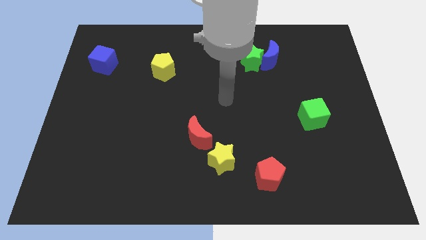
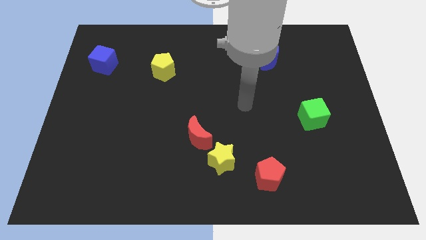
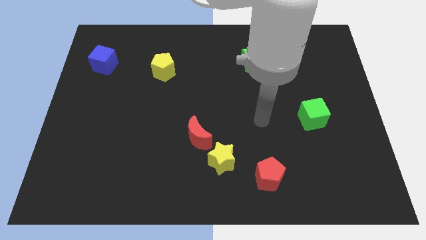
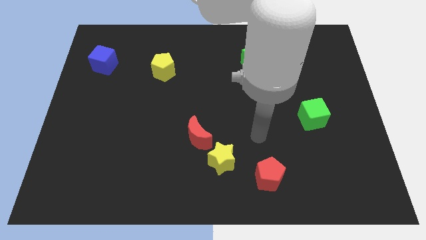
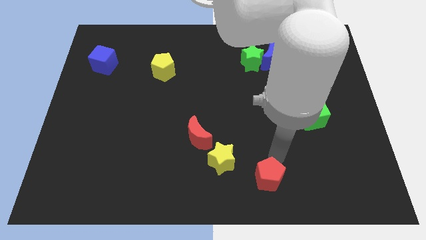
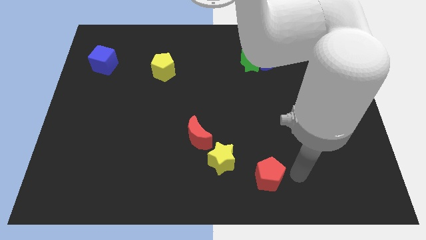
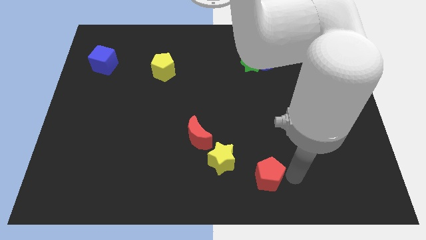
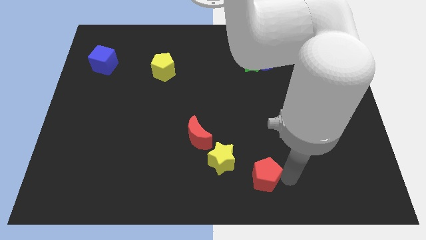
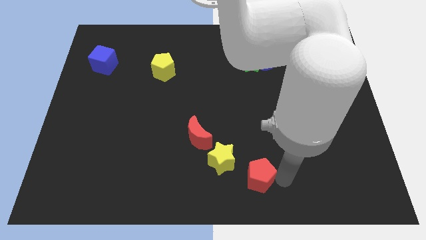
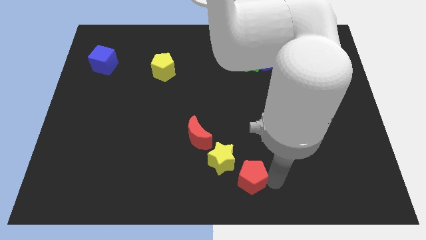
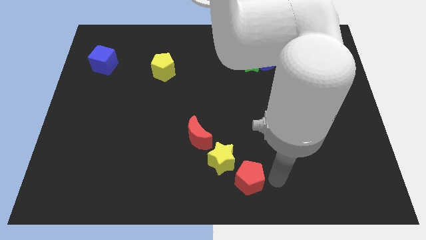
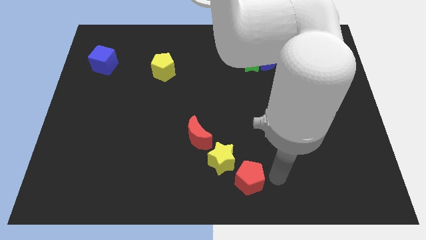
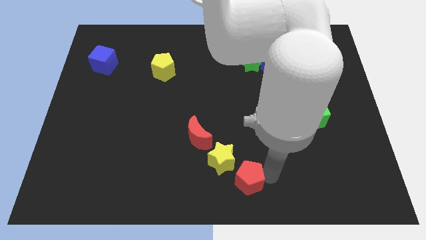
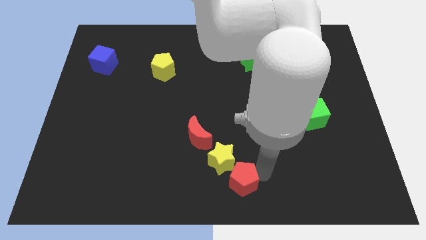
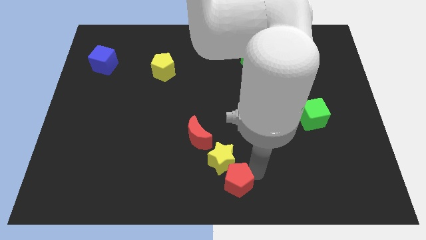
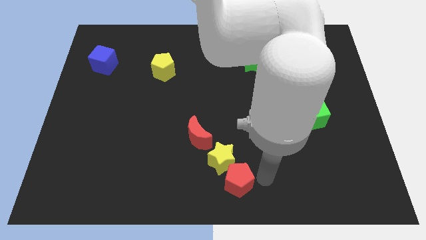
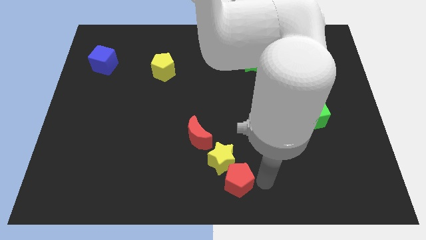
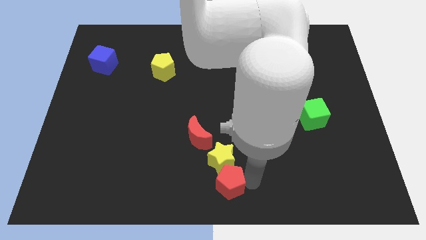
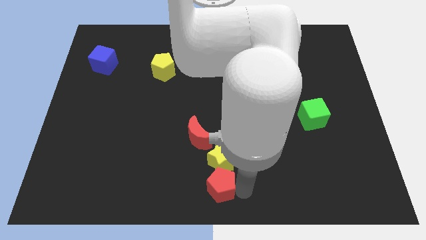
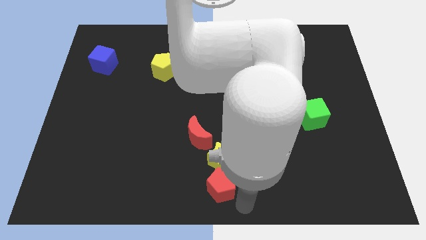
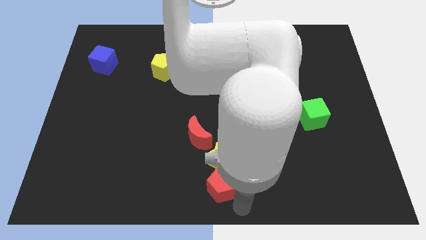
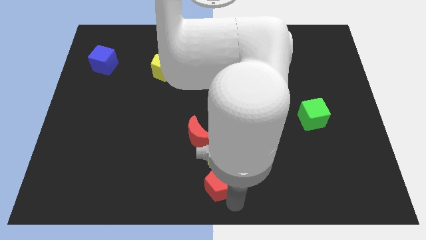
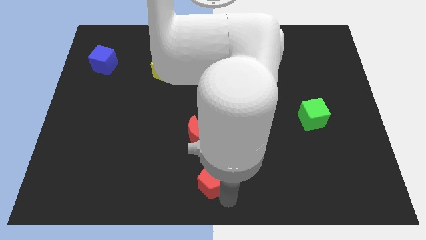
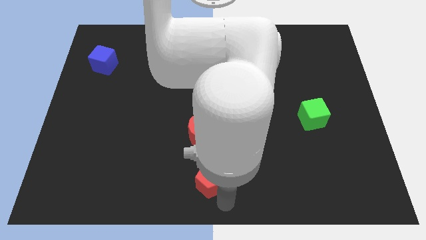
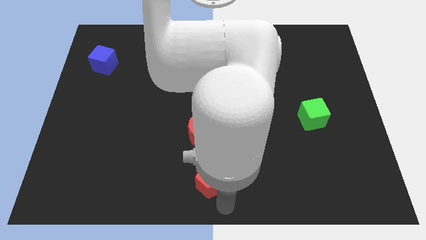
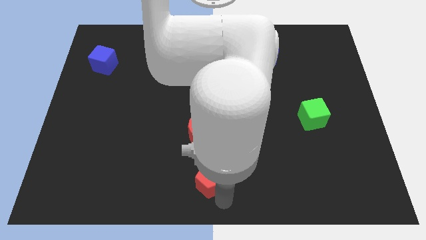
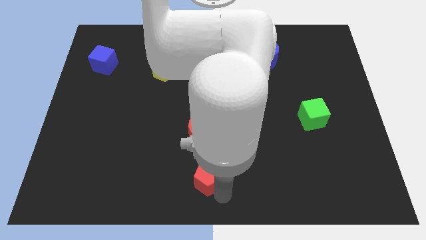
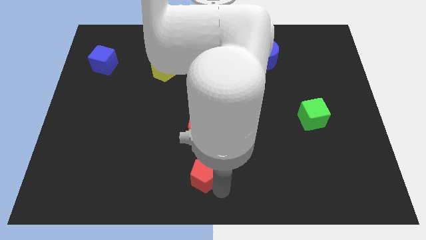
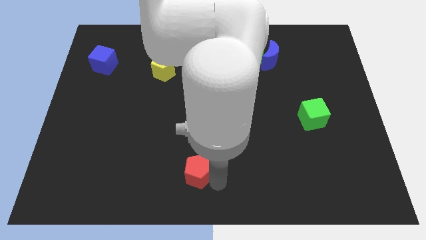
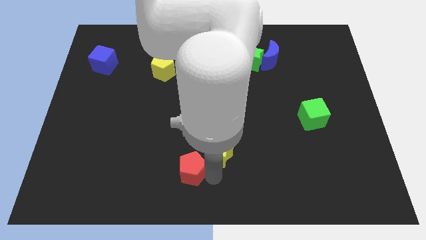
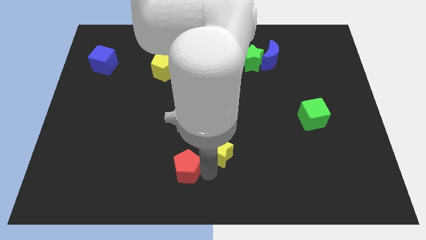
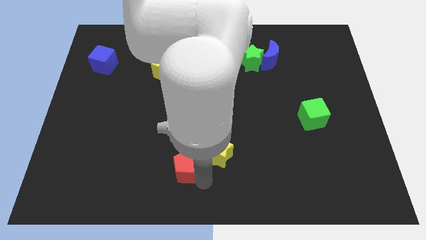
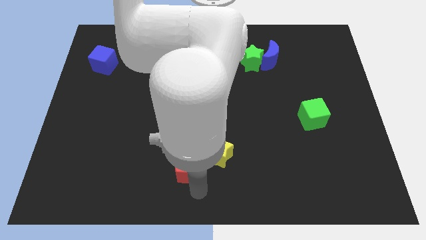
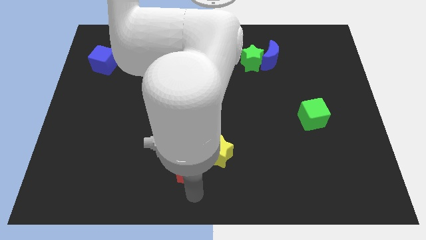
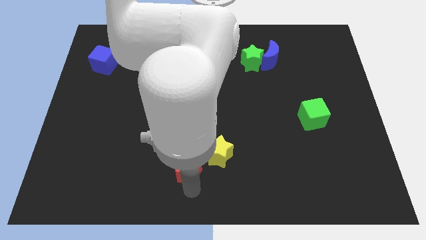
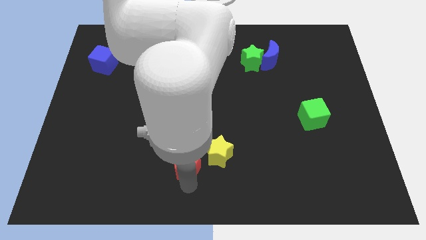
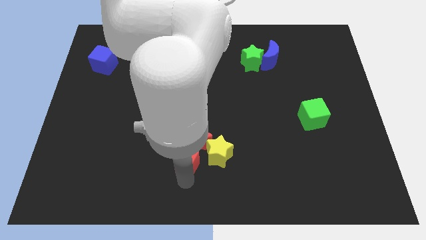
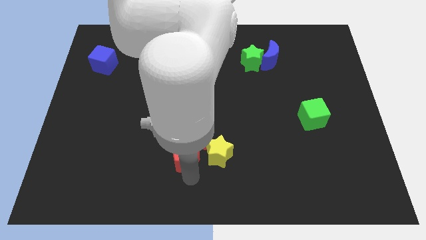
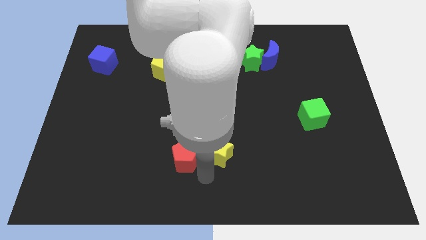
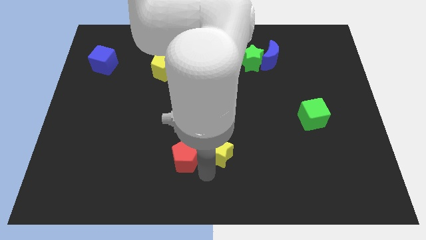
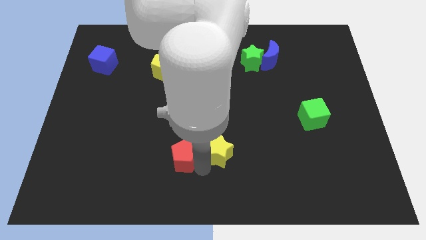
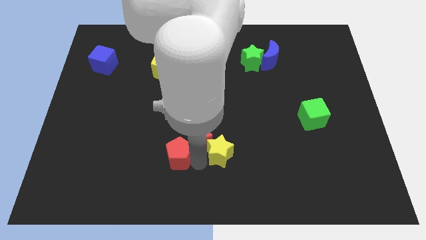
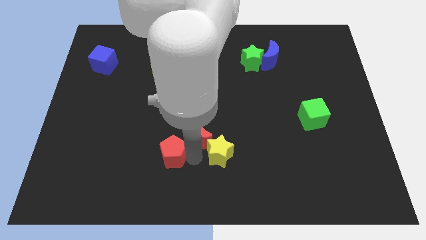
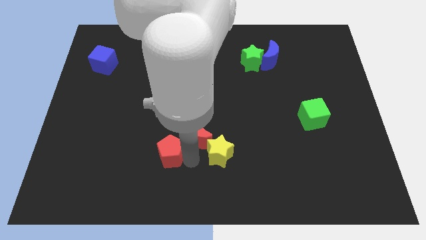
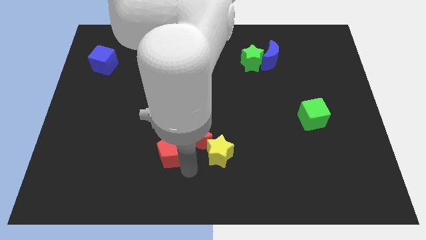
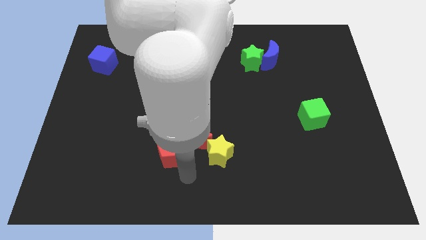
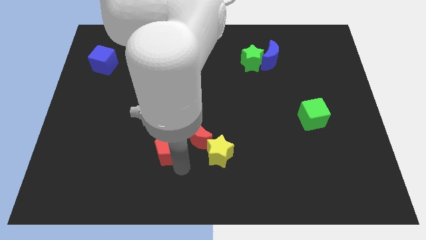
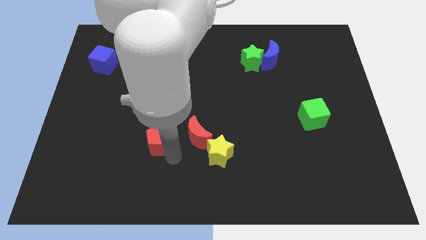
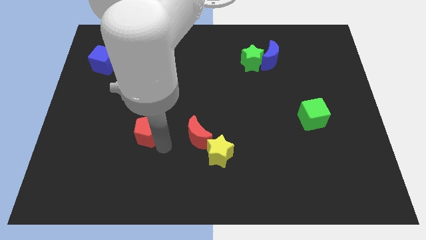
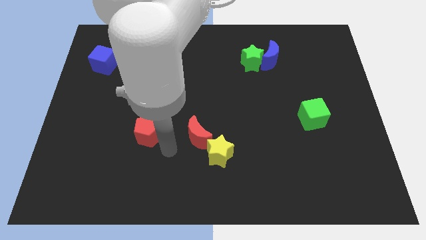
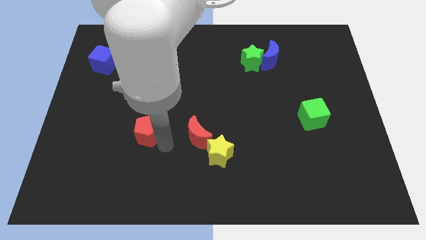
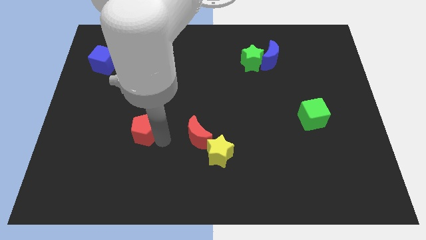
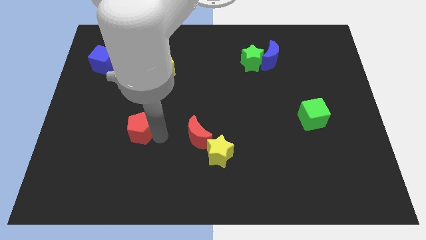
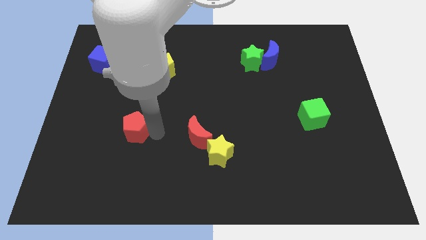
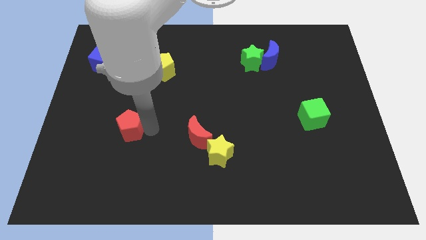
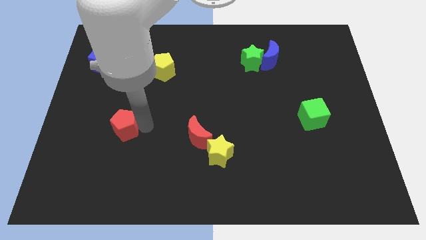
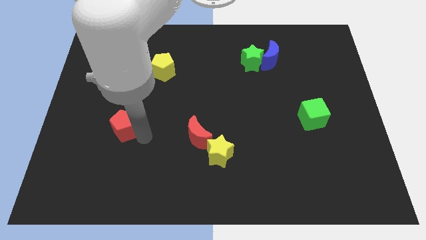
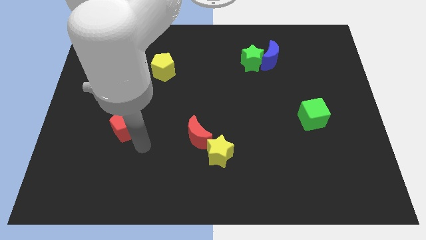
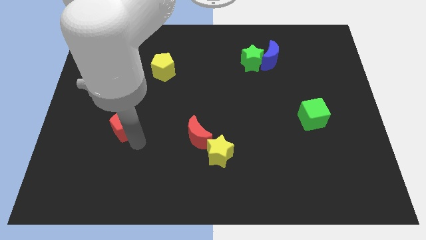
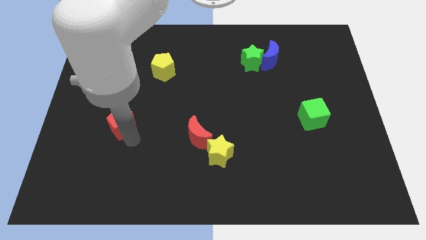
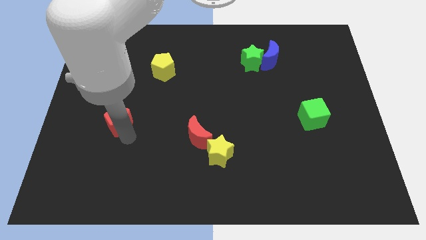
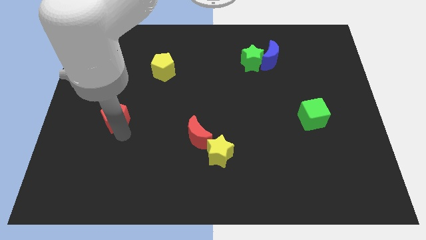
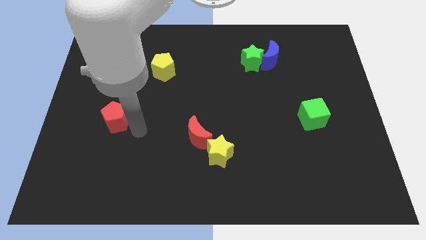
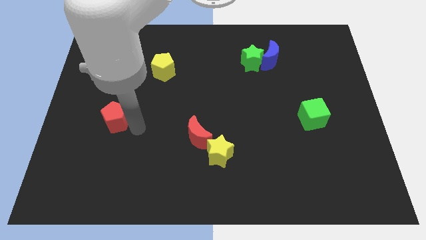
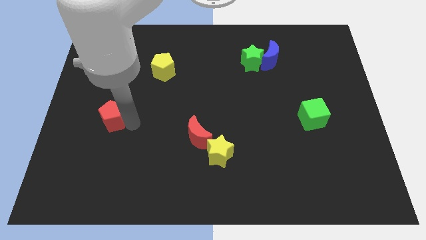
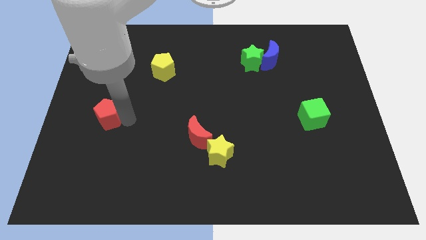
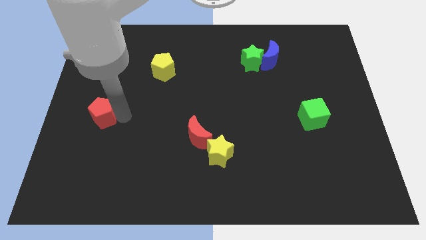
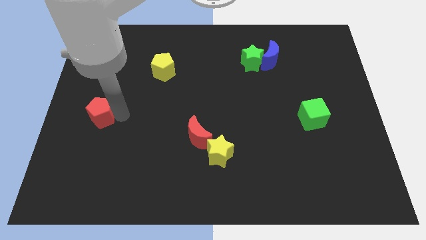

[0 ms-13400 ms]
move the red pentagon to the left side of the board
